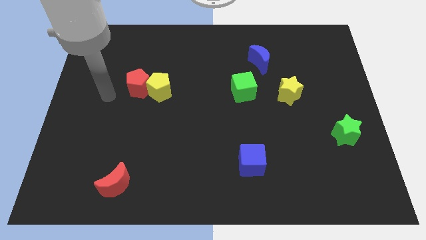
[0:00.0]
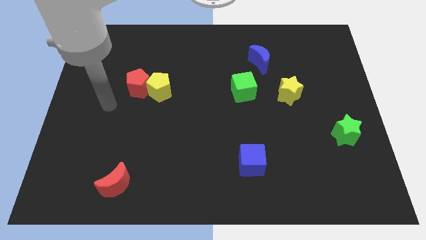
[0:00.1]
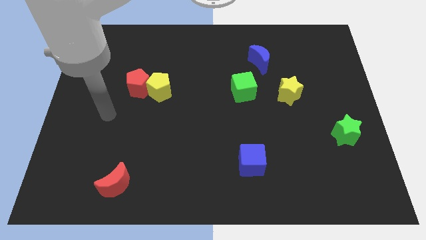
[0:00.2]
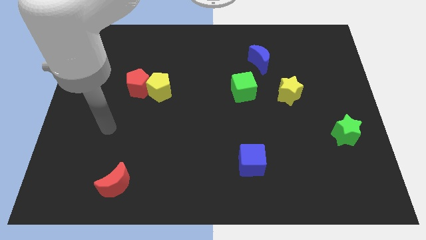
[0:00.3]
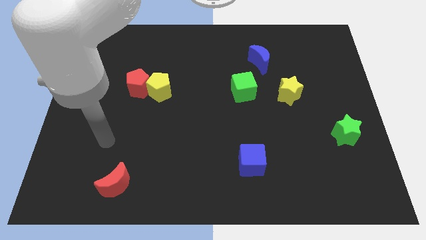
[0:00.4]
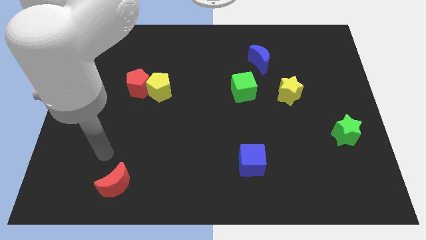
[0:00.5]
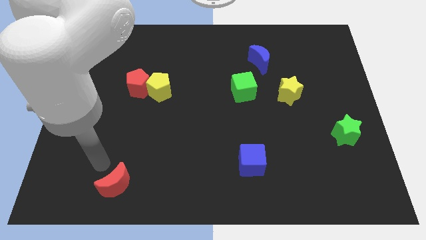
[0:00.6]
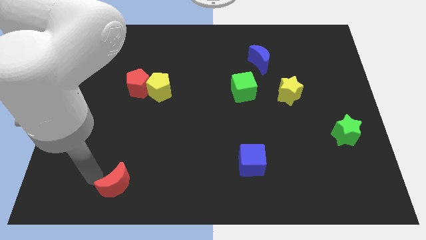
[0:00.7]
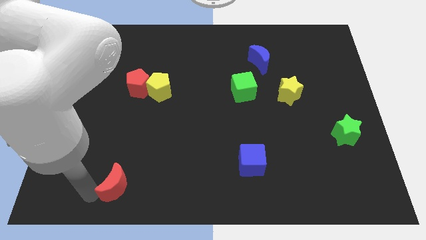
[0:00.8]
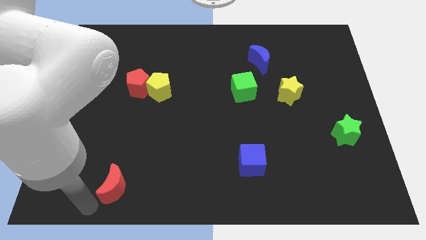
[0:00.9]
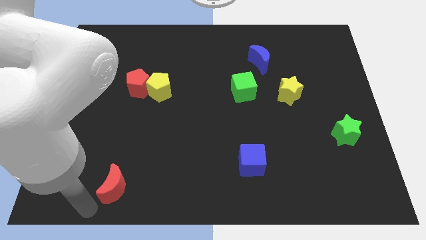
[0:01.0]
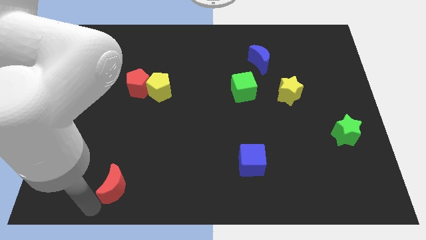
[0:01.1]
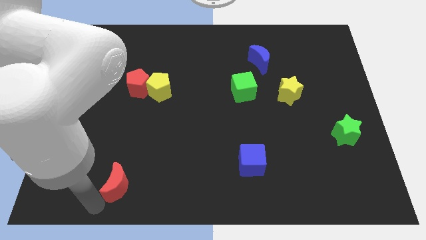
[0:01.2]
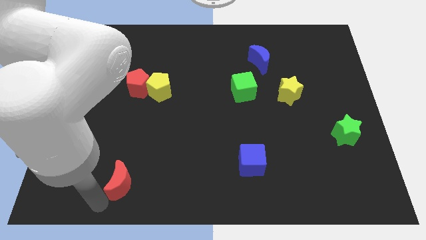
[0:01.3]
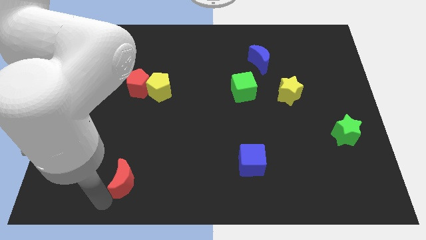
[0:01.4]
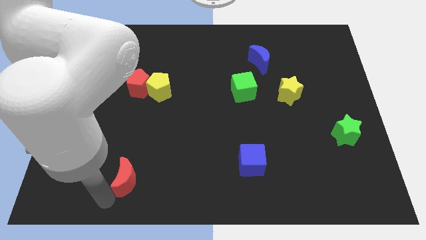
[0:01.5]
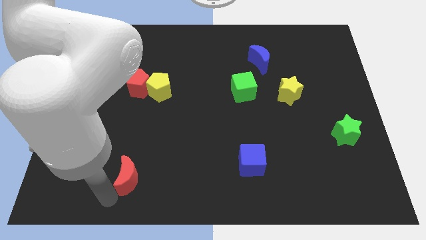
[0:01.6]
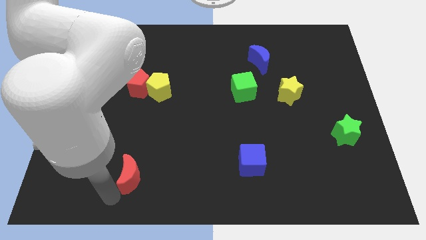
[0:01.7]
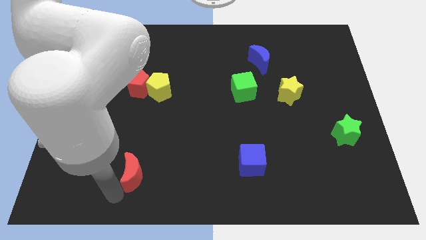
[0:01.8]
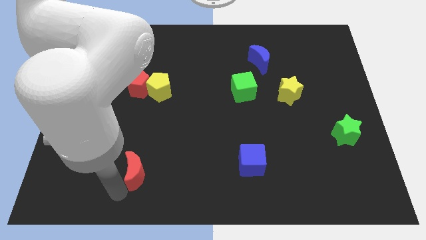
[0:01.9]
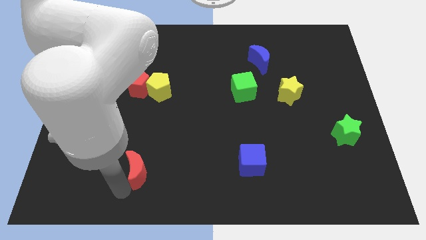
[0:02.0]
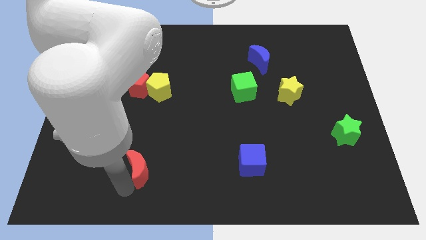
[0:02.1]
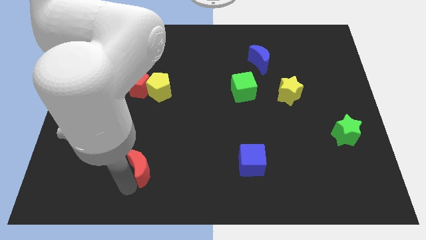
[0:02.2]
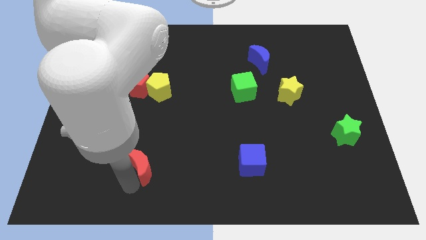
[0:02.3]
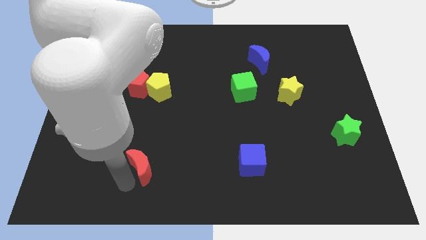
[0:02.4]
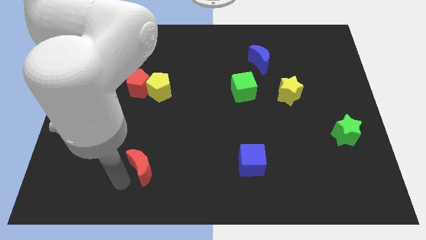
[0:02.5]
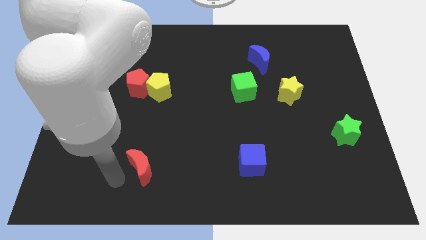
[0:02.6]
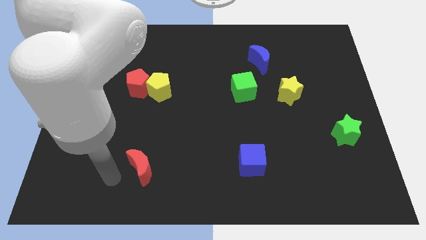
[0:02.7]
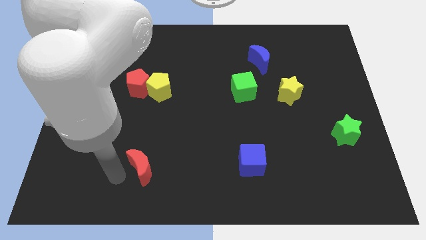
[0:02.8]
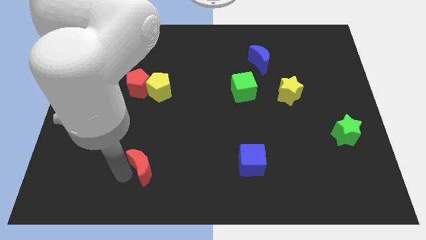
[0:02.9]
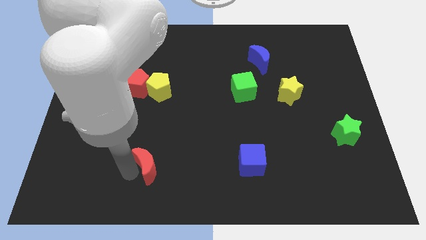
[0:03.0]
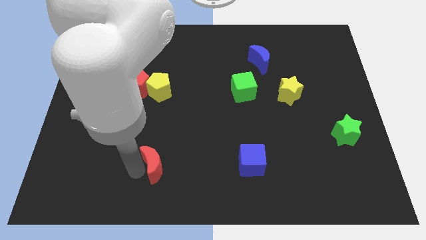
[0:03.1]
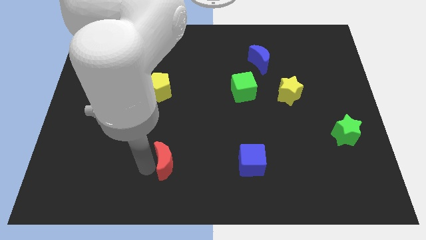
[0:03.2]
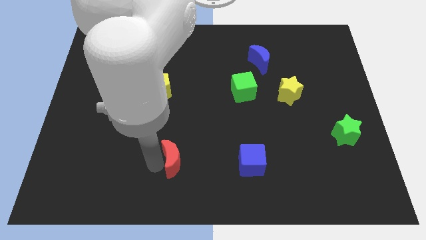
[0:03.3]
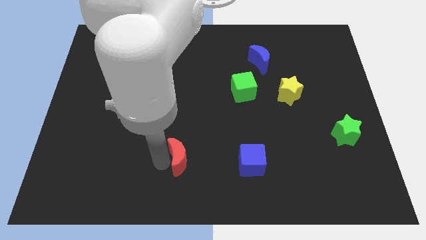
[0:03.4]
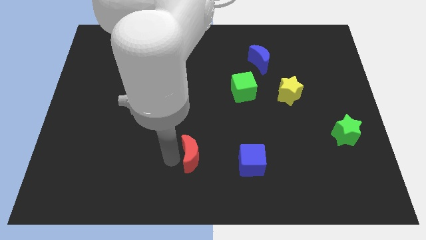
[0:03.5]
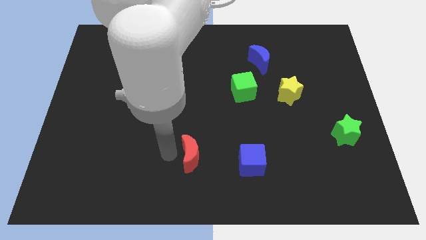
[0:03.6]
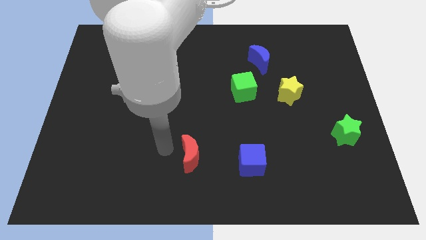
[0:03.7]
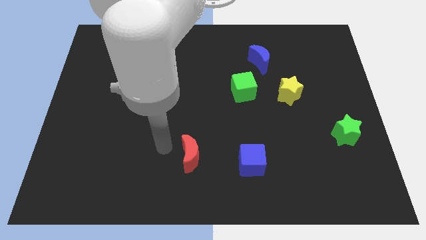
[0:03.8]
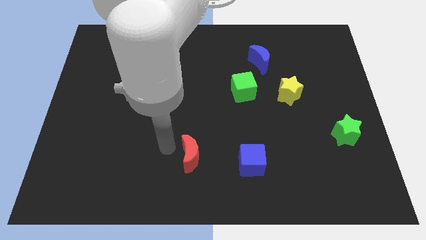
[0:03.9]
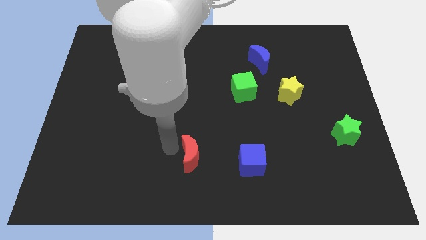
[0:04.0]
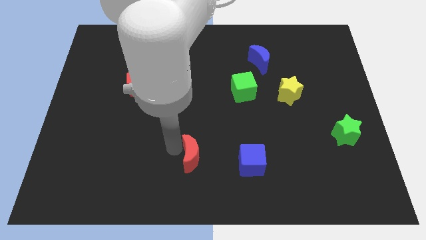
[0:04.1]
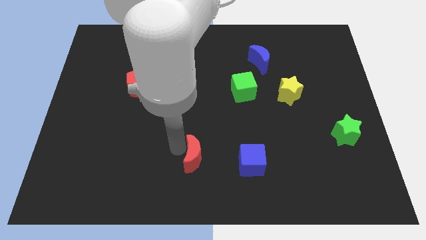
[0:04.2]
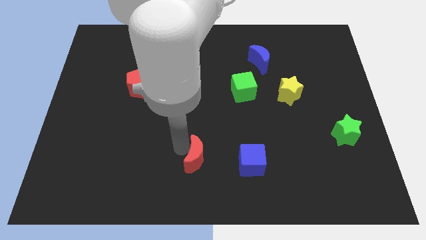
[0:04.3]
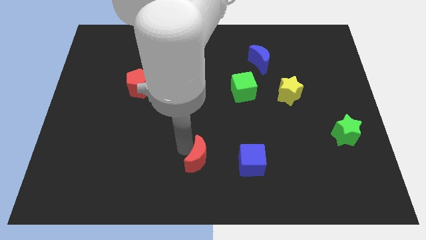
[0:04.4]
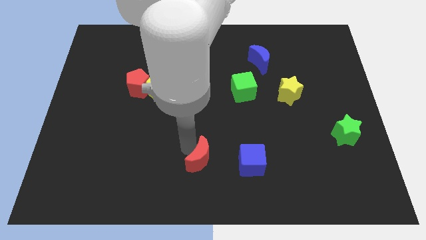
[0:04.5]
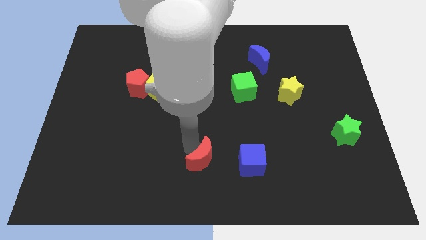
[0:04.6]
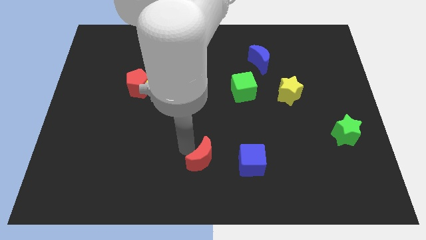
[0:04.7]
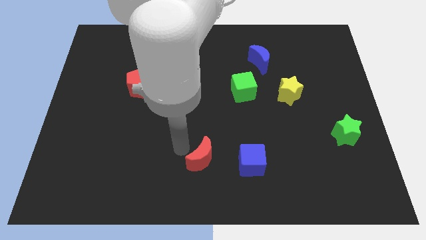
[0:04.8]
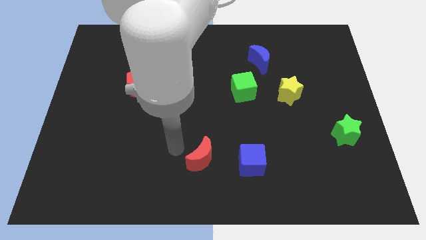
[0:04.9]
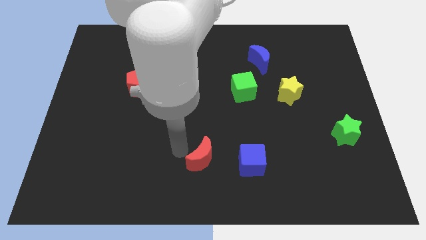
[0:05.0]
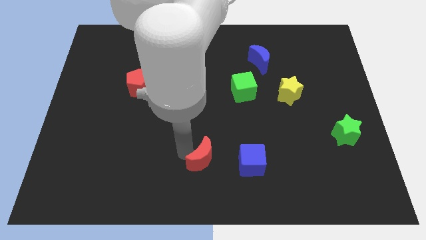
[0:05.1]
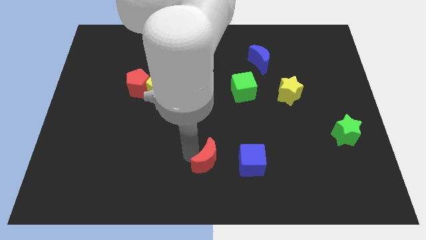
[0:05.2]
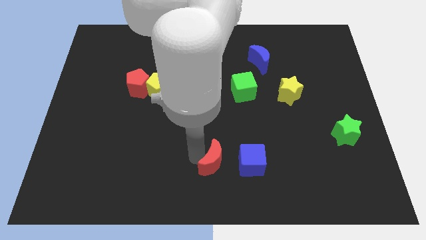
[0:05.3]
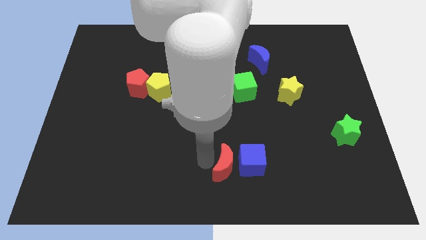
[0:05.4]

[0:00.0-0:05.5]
slide the red moon next to the blue cube

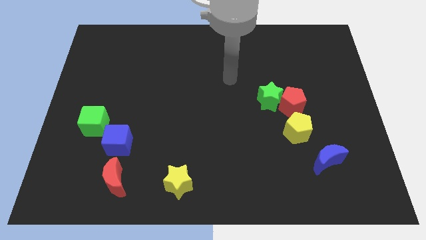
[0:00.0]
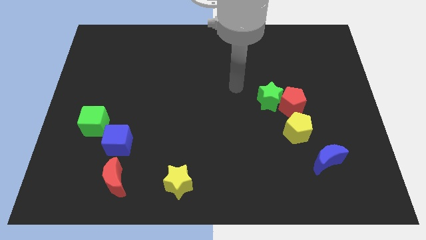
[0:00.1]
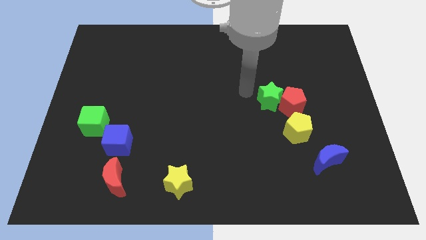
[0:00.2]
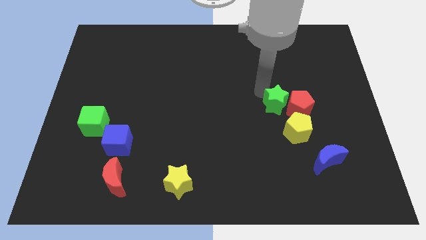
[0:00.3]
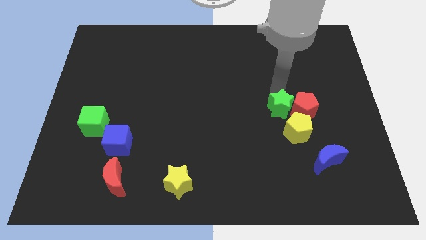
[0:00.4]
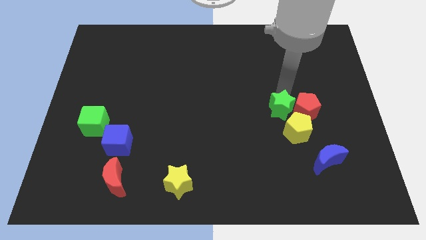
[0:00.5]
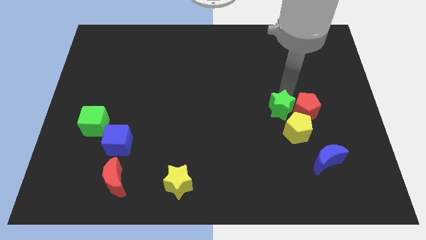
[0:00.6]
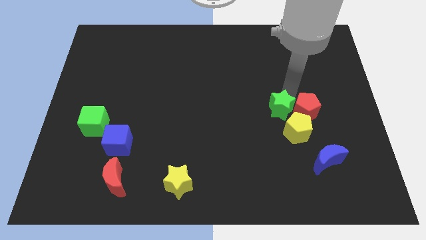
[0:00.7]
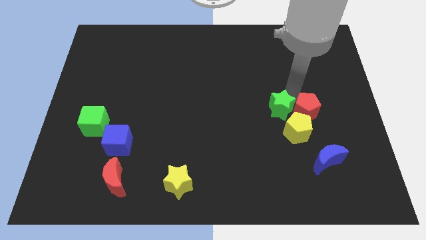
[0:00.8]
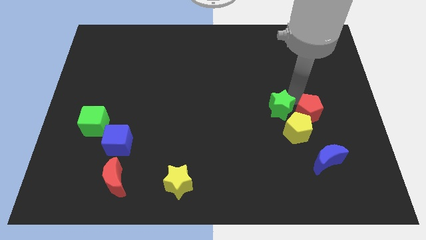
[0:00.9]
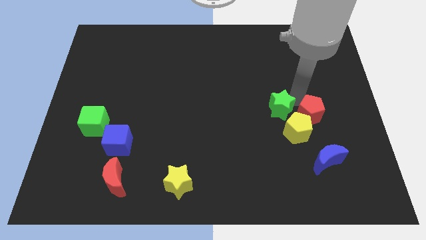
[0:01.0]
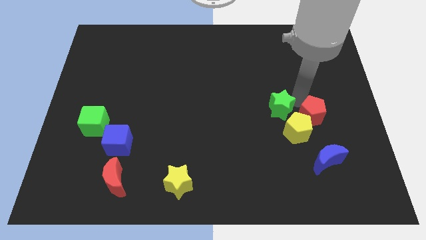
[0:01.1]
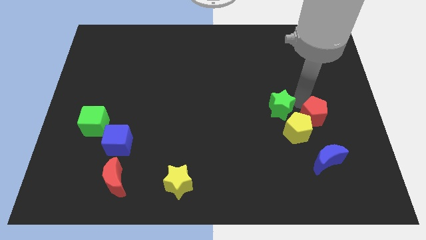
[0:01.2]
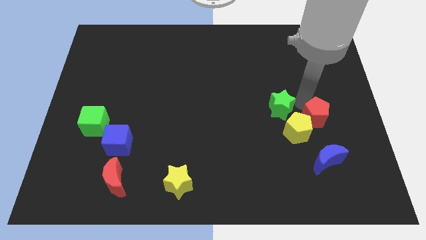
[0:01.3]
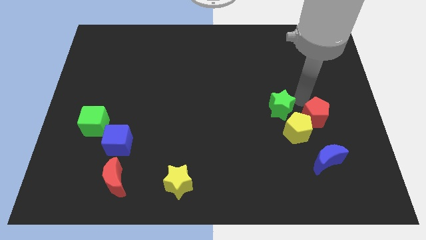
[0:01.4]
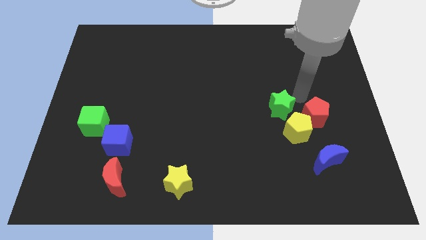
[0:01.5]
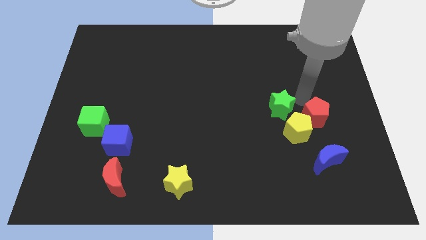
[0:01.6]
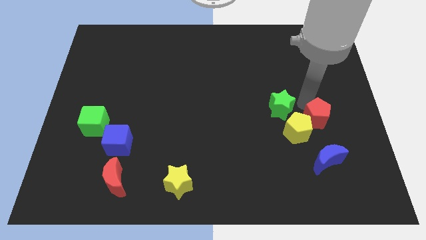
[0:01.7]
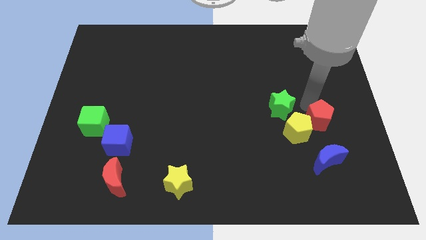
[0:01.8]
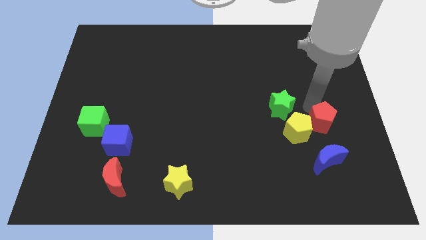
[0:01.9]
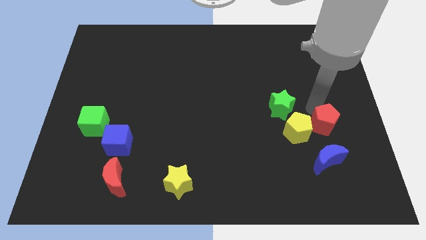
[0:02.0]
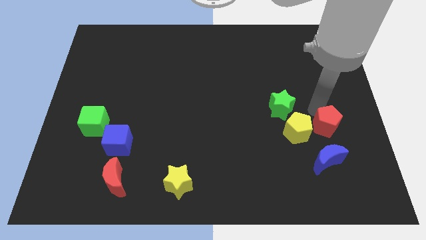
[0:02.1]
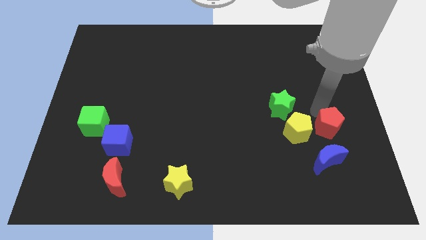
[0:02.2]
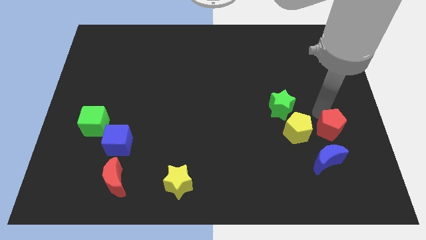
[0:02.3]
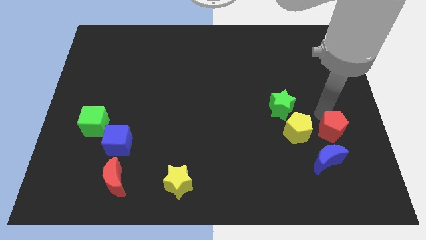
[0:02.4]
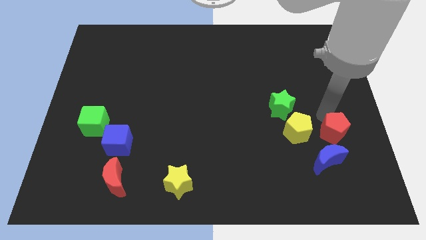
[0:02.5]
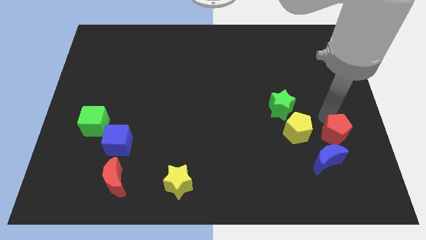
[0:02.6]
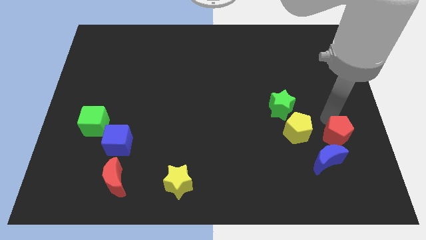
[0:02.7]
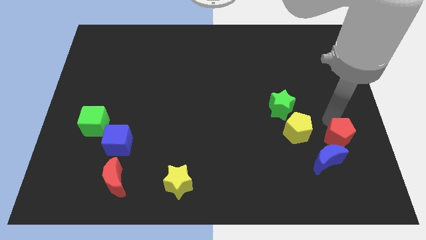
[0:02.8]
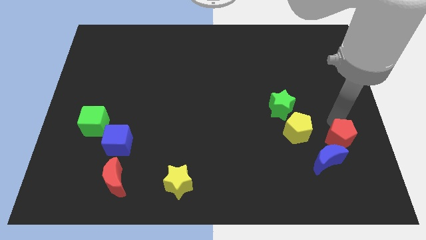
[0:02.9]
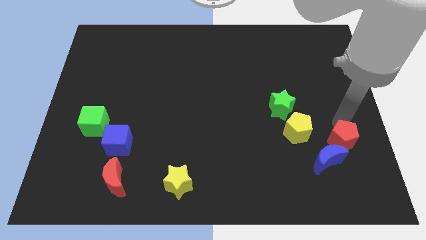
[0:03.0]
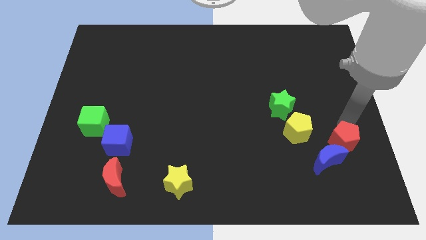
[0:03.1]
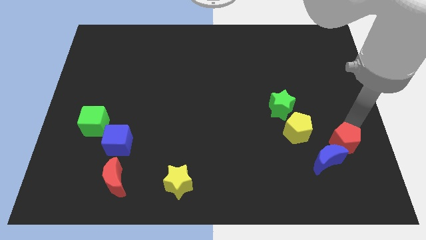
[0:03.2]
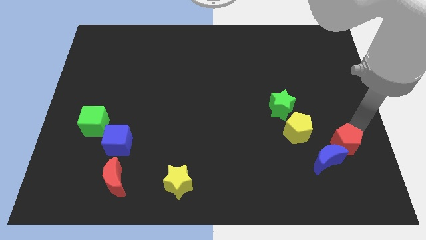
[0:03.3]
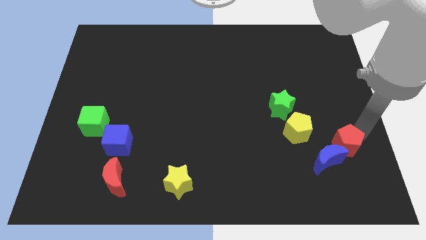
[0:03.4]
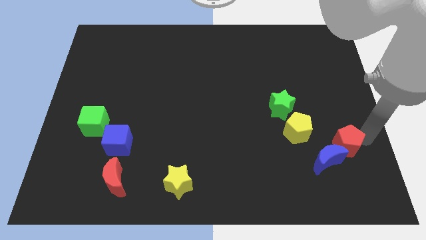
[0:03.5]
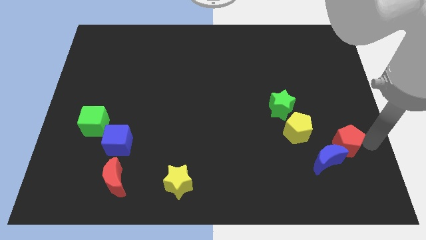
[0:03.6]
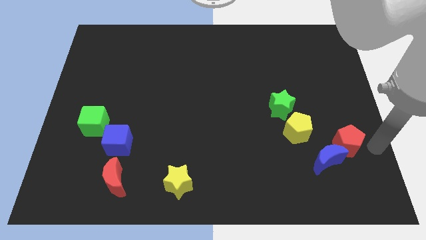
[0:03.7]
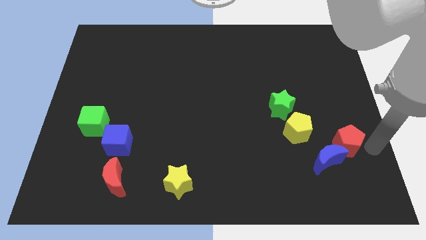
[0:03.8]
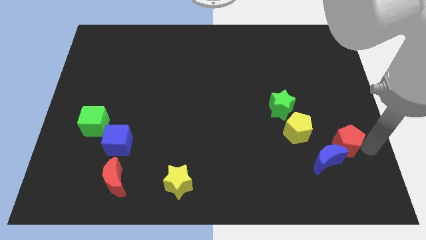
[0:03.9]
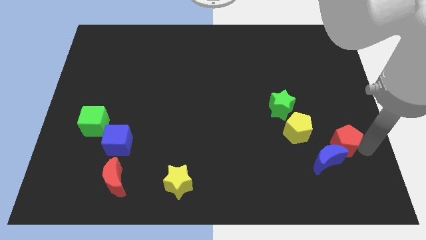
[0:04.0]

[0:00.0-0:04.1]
slide the red pentagon close to the blue moon
